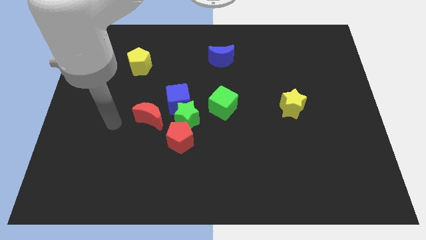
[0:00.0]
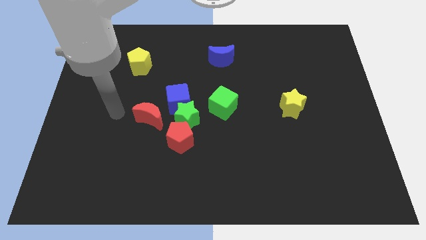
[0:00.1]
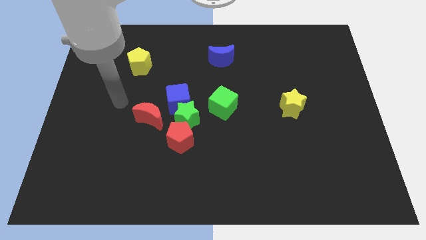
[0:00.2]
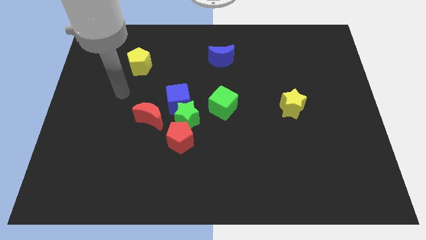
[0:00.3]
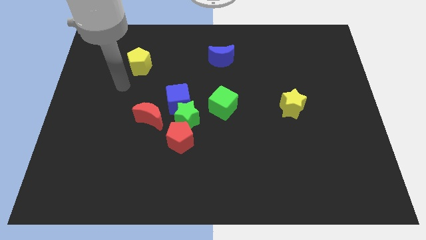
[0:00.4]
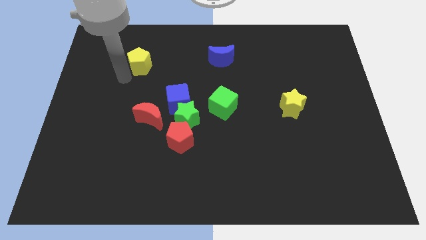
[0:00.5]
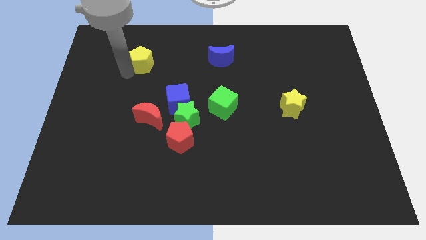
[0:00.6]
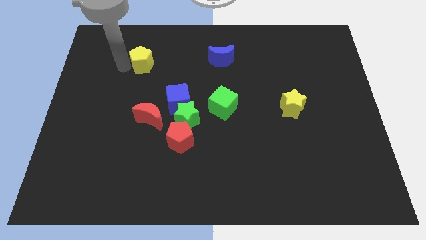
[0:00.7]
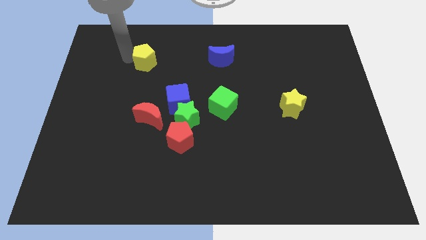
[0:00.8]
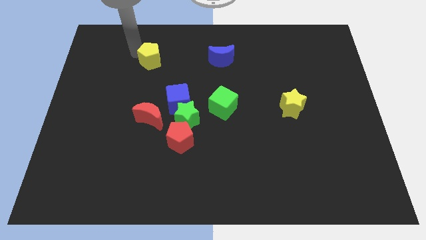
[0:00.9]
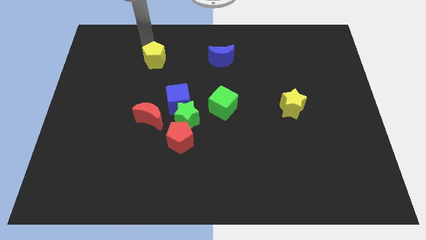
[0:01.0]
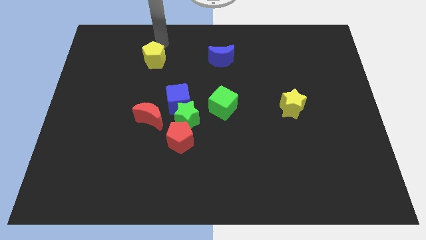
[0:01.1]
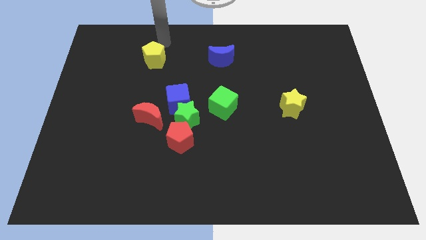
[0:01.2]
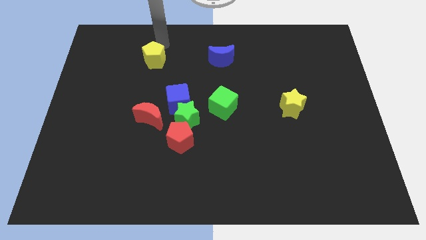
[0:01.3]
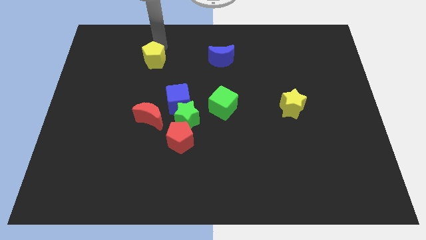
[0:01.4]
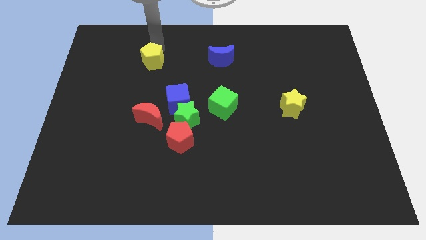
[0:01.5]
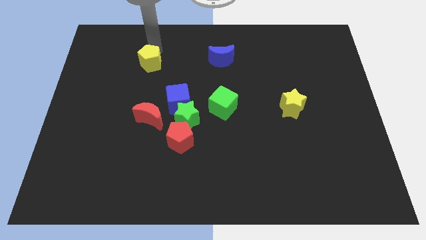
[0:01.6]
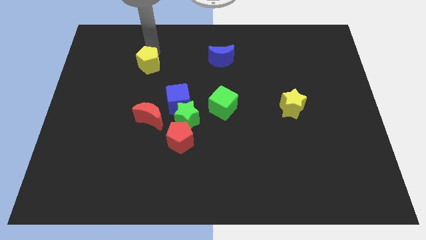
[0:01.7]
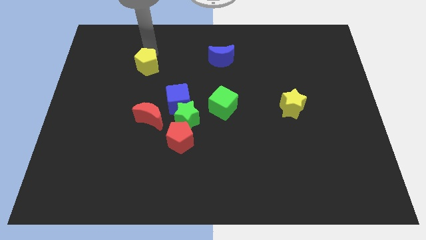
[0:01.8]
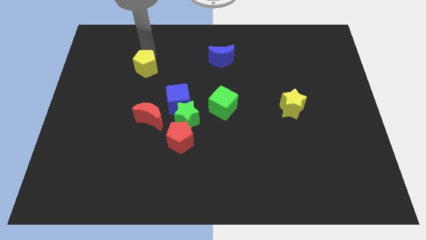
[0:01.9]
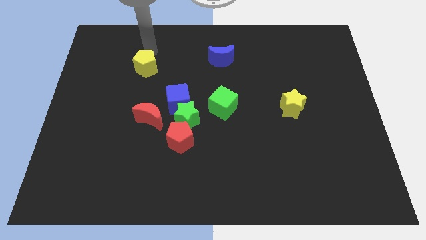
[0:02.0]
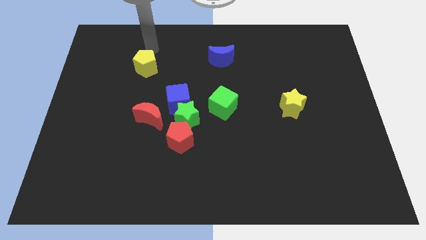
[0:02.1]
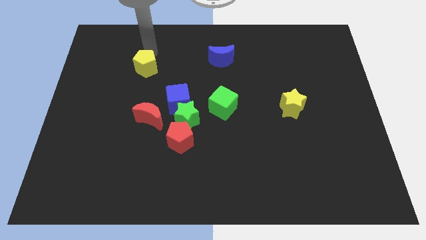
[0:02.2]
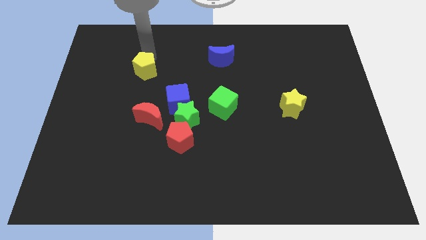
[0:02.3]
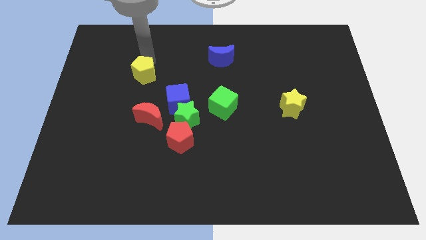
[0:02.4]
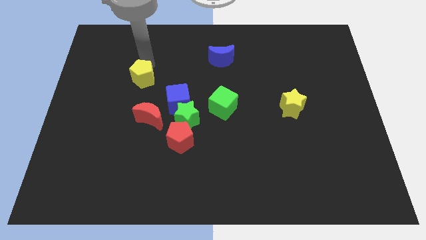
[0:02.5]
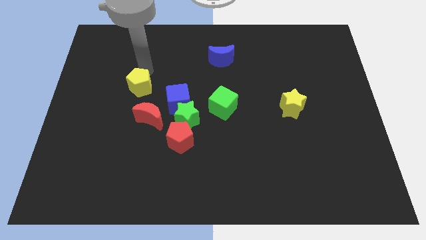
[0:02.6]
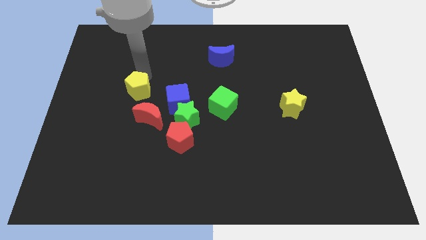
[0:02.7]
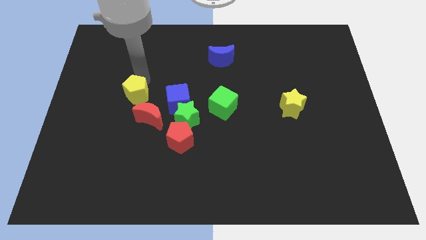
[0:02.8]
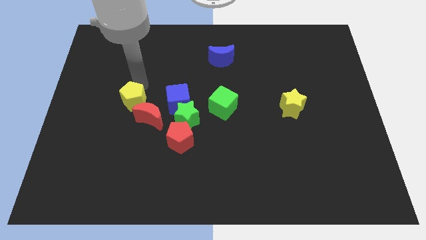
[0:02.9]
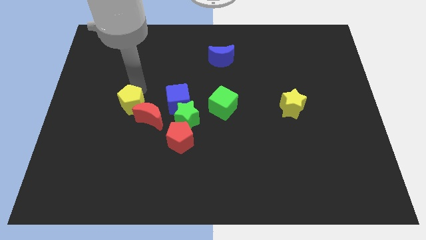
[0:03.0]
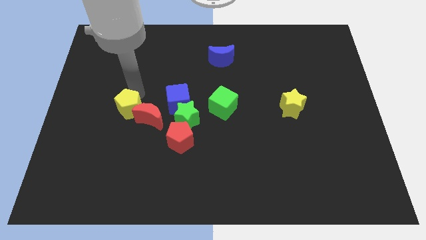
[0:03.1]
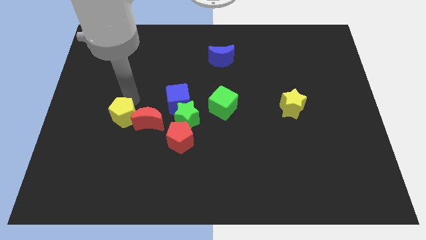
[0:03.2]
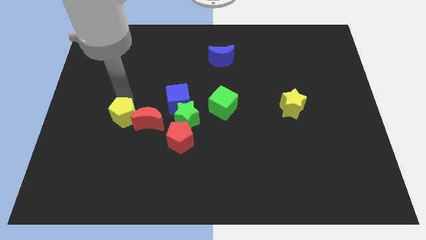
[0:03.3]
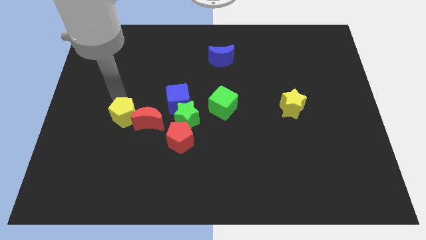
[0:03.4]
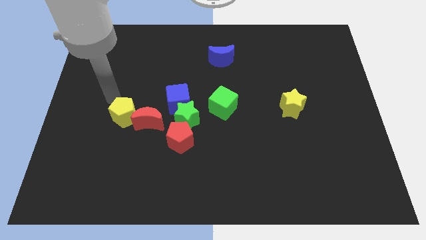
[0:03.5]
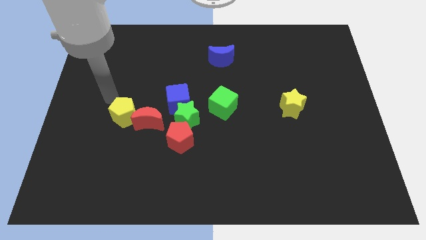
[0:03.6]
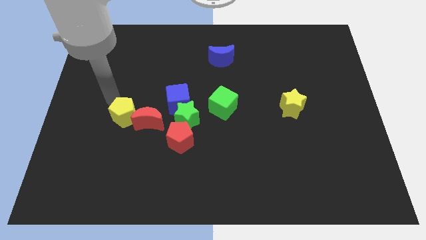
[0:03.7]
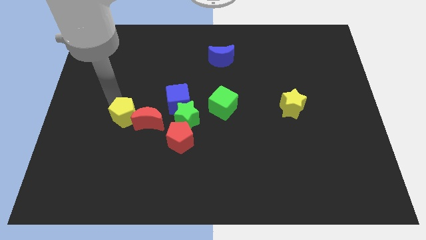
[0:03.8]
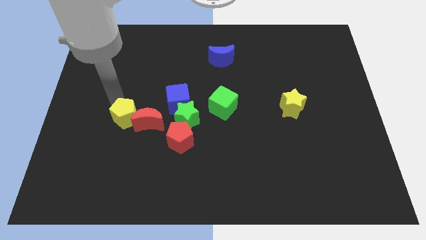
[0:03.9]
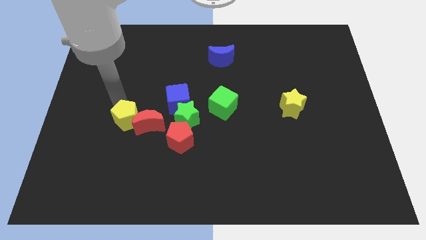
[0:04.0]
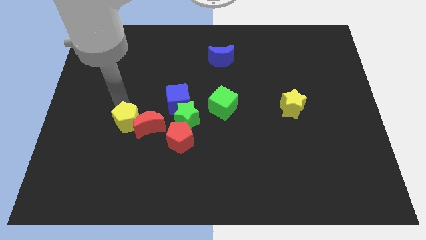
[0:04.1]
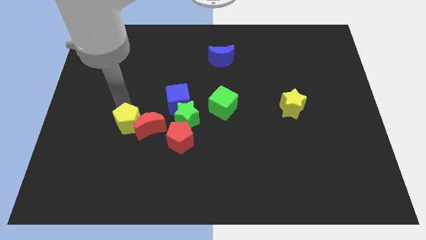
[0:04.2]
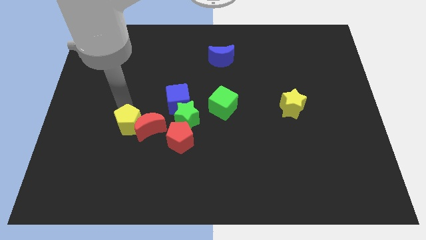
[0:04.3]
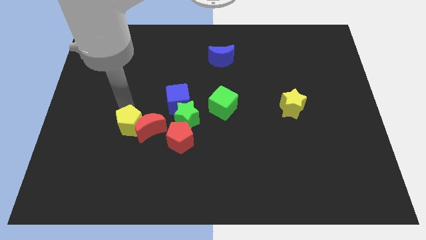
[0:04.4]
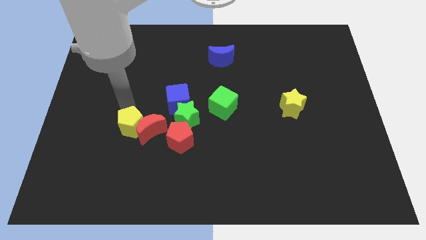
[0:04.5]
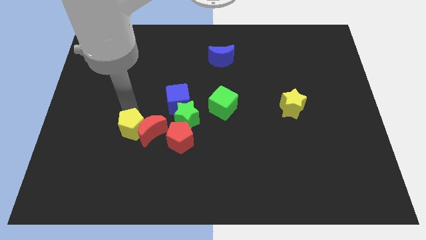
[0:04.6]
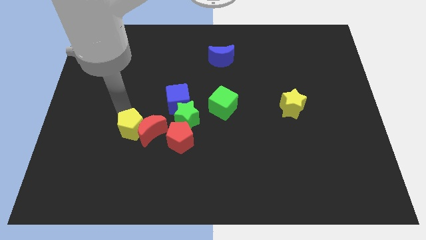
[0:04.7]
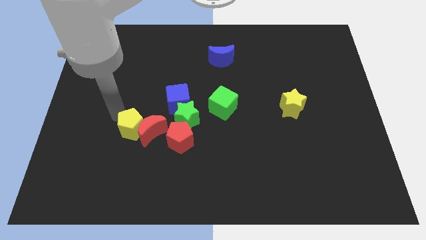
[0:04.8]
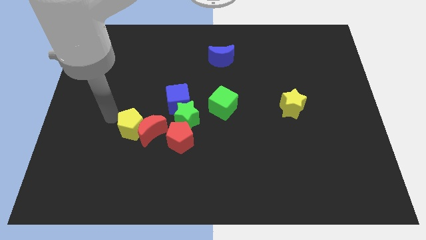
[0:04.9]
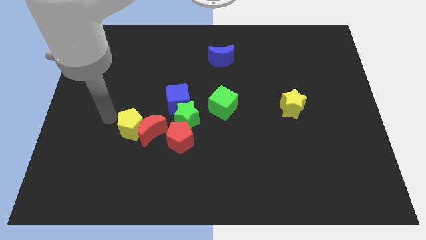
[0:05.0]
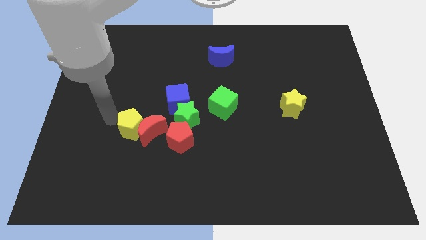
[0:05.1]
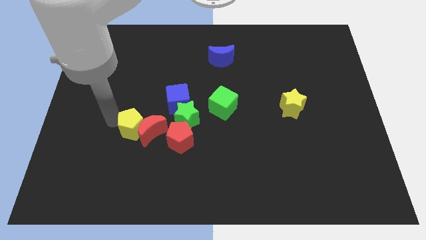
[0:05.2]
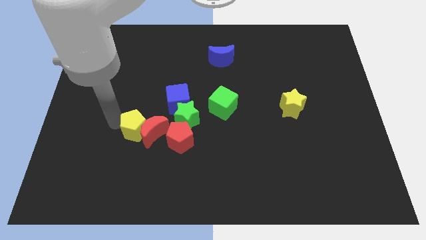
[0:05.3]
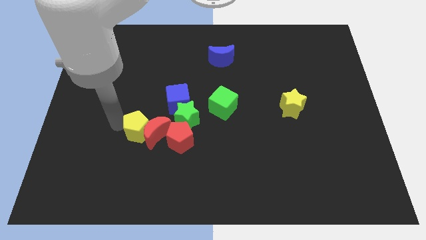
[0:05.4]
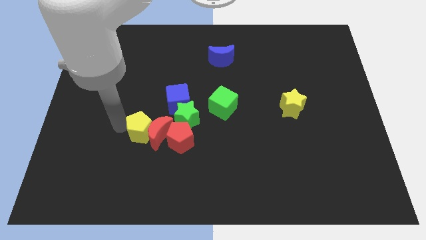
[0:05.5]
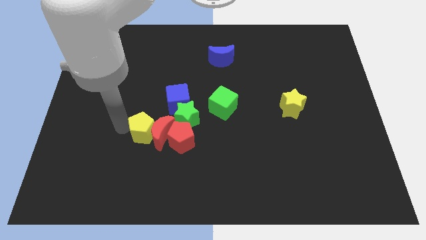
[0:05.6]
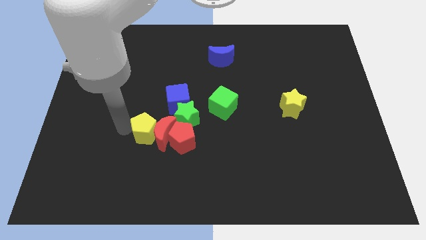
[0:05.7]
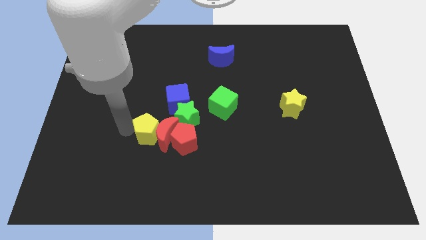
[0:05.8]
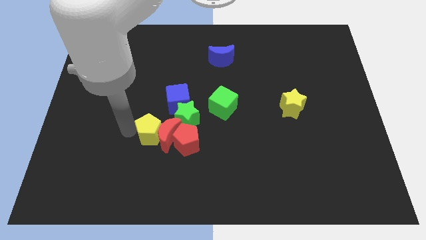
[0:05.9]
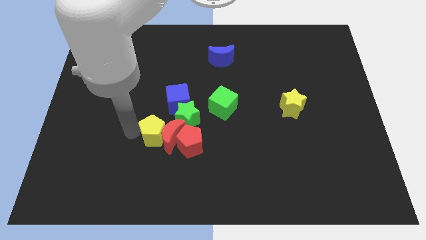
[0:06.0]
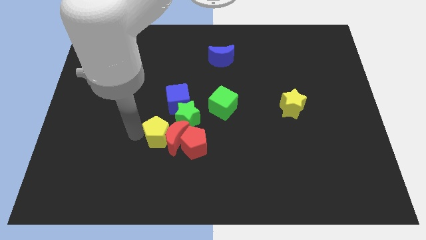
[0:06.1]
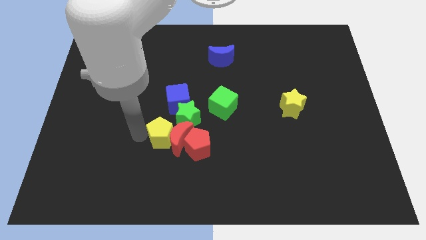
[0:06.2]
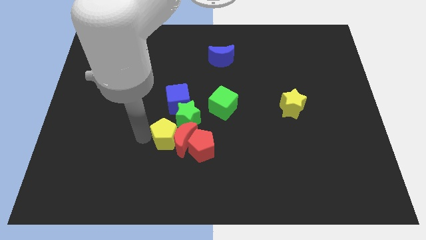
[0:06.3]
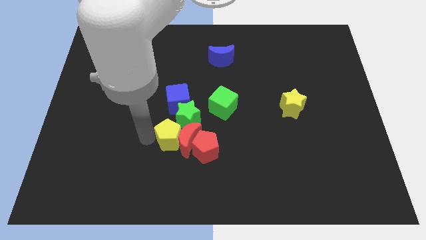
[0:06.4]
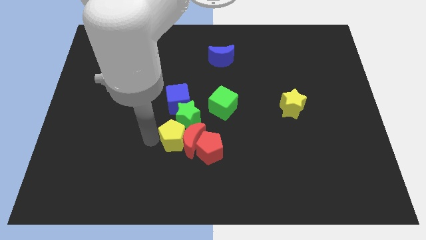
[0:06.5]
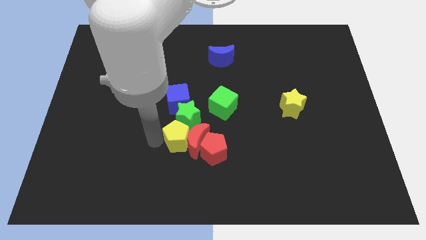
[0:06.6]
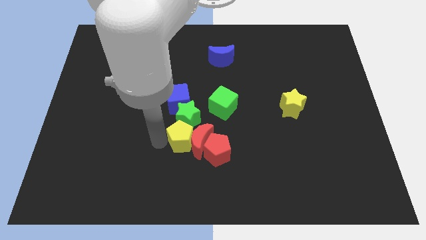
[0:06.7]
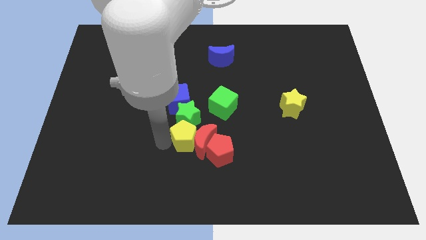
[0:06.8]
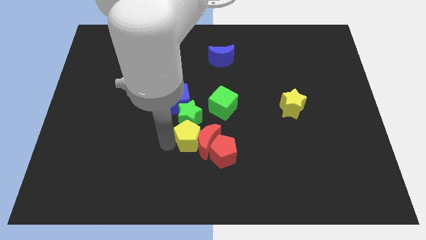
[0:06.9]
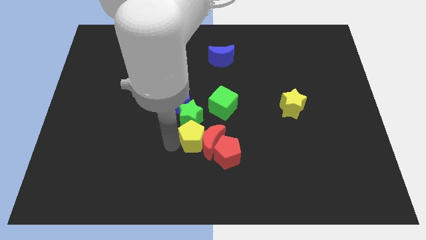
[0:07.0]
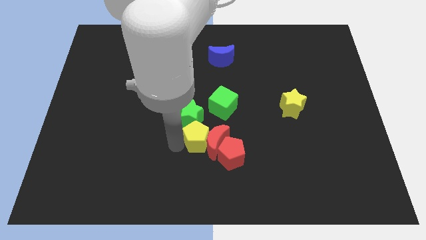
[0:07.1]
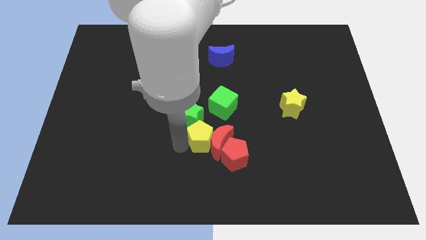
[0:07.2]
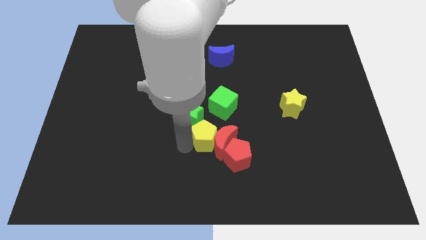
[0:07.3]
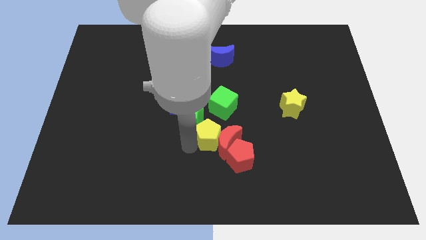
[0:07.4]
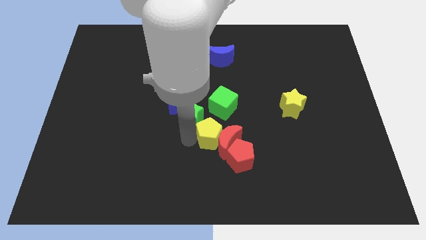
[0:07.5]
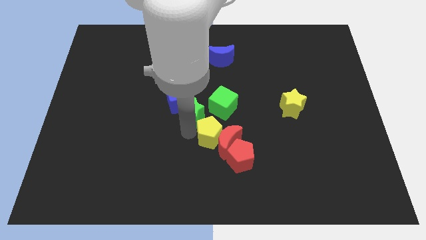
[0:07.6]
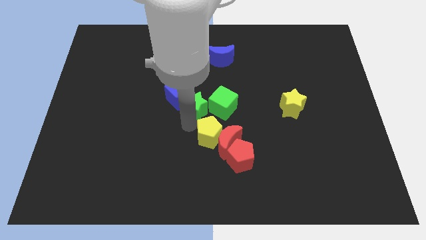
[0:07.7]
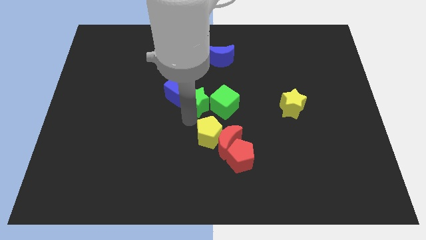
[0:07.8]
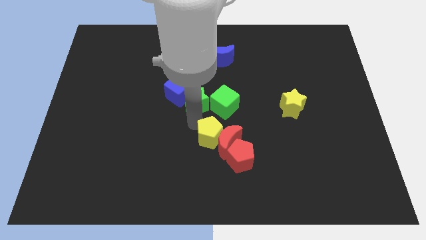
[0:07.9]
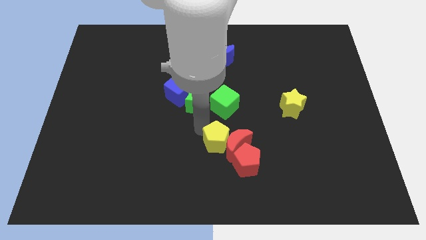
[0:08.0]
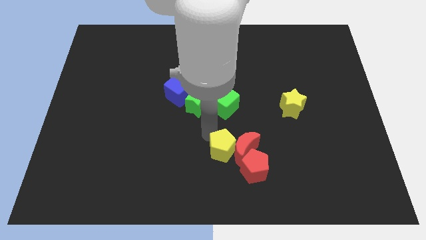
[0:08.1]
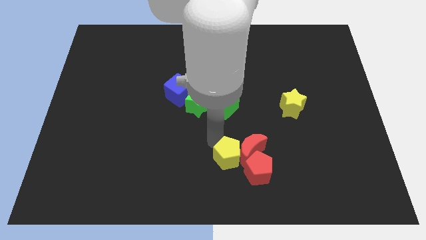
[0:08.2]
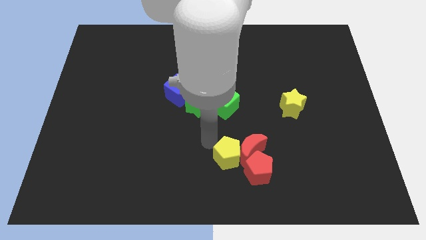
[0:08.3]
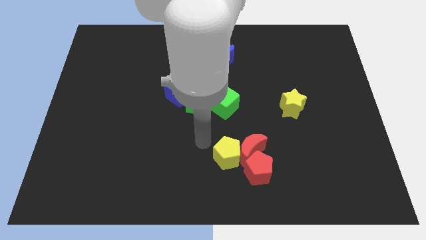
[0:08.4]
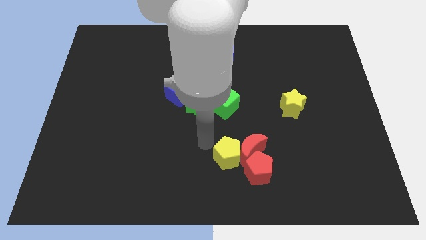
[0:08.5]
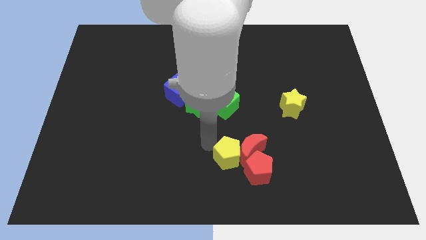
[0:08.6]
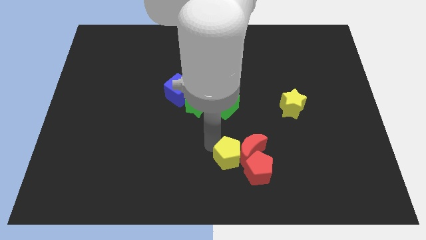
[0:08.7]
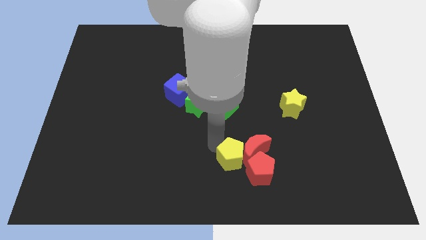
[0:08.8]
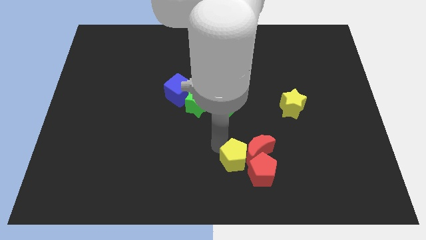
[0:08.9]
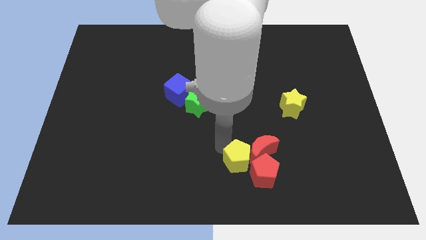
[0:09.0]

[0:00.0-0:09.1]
move the yellow pentagon towards the red pentagon
